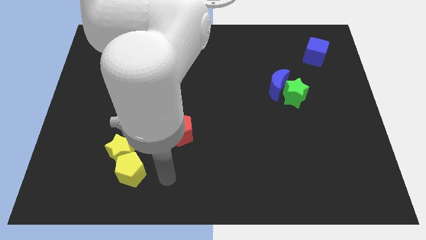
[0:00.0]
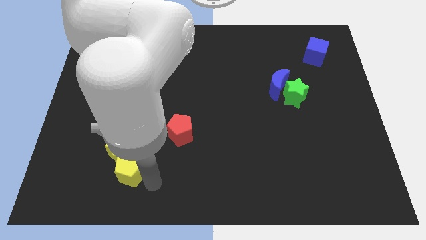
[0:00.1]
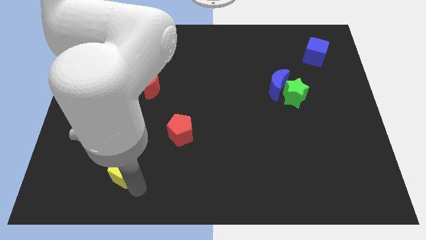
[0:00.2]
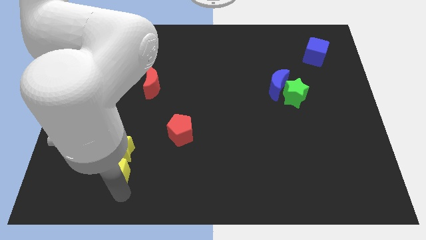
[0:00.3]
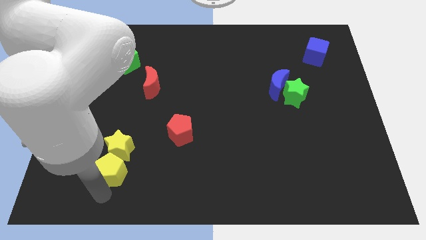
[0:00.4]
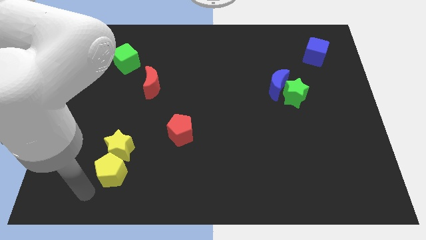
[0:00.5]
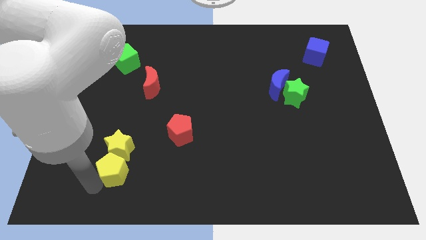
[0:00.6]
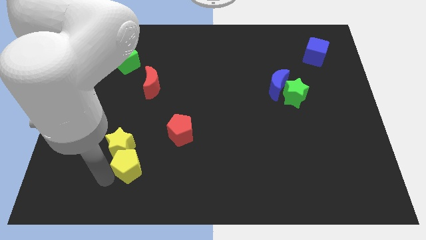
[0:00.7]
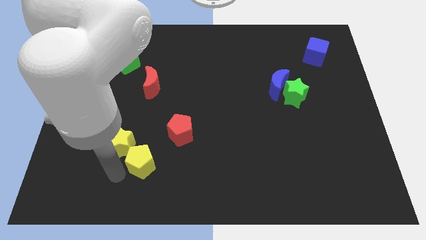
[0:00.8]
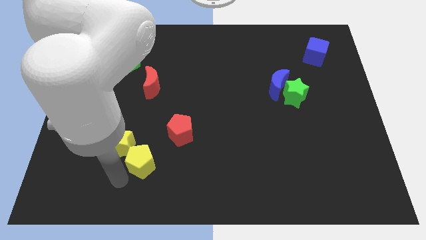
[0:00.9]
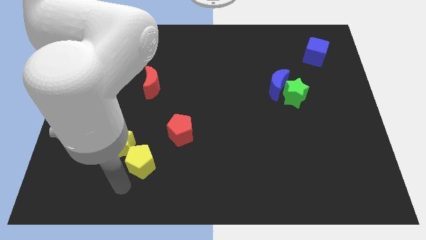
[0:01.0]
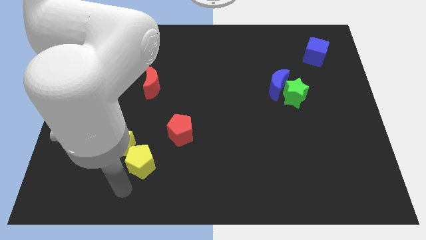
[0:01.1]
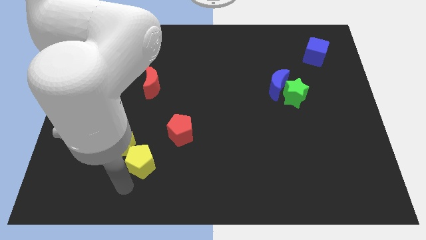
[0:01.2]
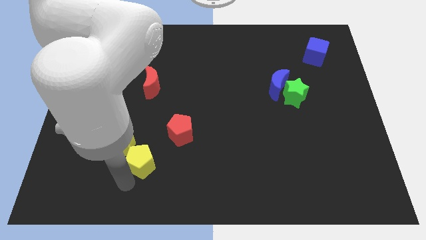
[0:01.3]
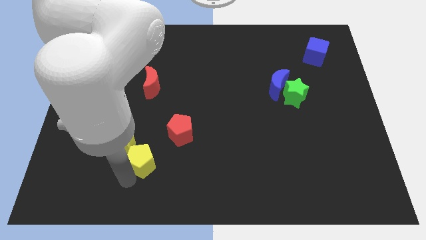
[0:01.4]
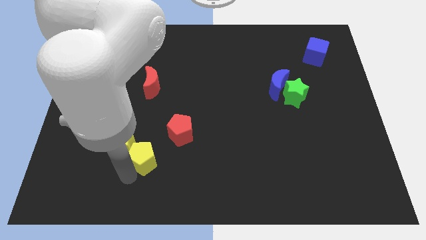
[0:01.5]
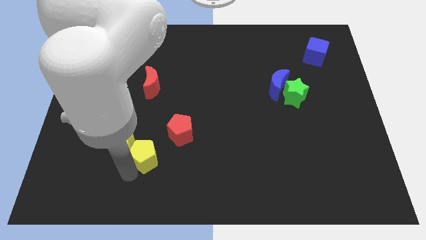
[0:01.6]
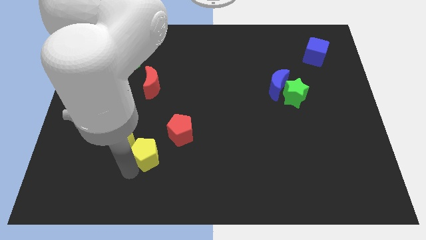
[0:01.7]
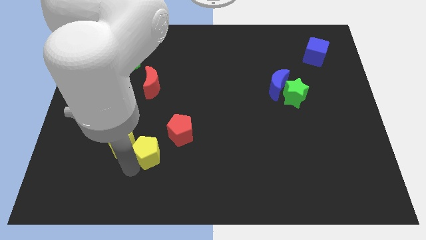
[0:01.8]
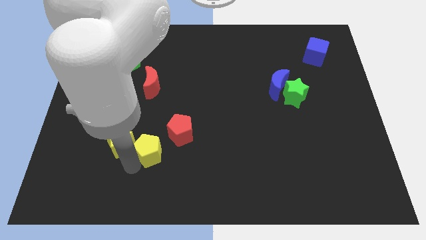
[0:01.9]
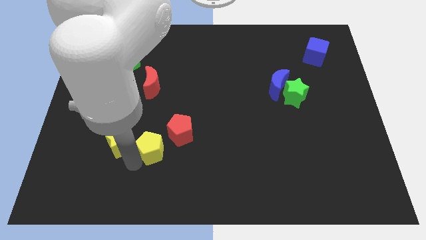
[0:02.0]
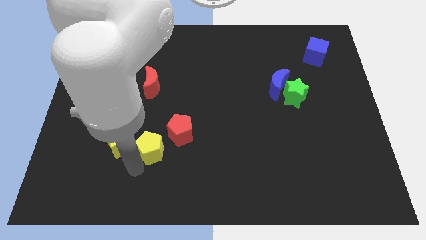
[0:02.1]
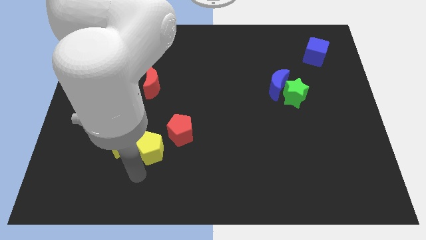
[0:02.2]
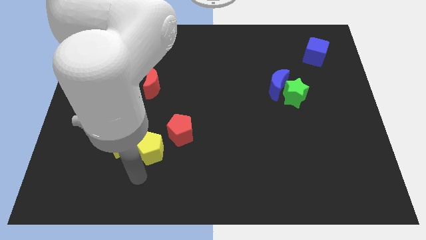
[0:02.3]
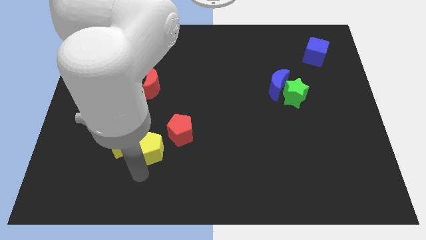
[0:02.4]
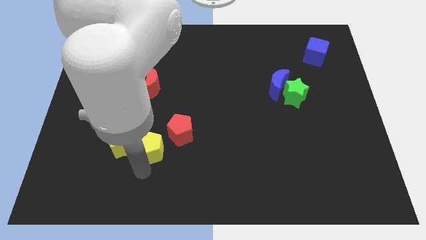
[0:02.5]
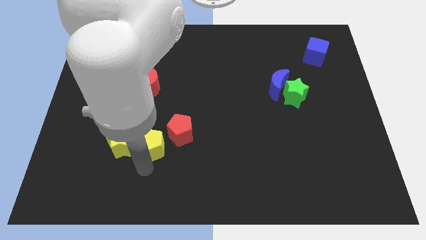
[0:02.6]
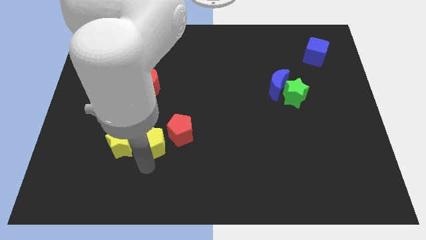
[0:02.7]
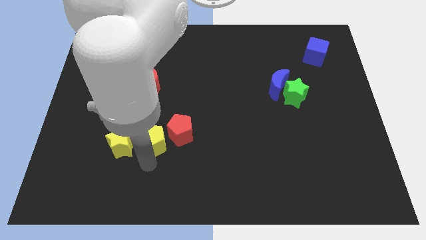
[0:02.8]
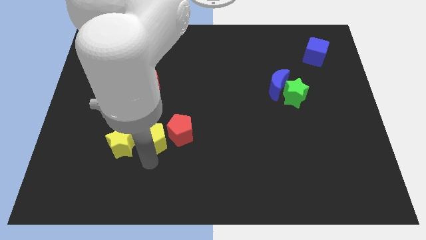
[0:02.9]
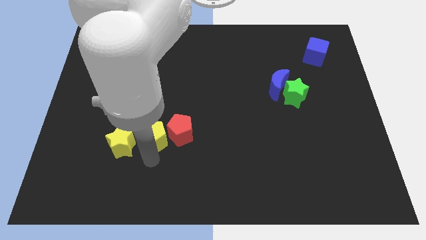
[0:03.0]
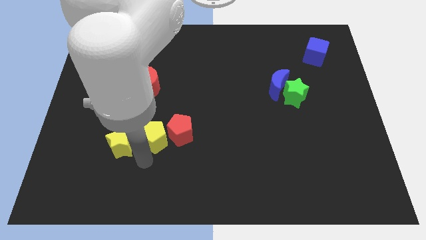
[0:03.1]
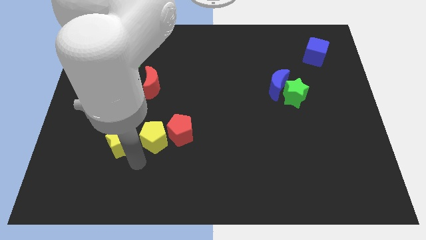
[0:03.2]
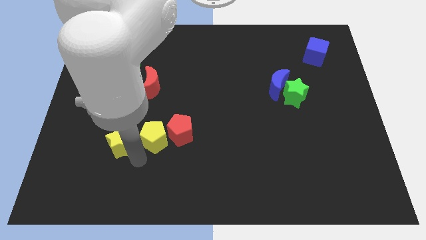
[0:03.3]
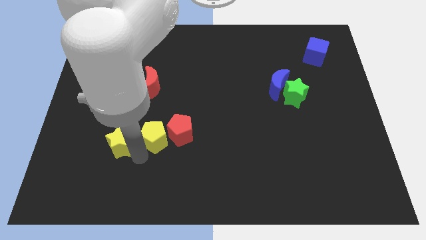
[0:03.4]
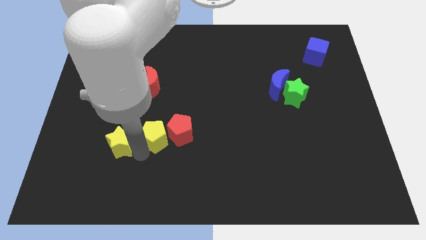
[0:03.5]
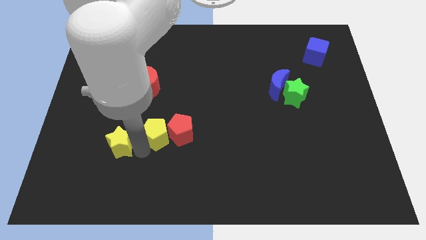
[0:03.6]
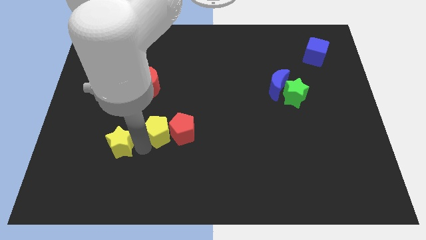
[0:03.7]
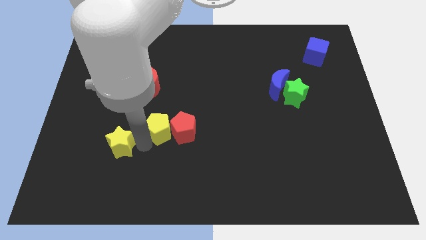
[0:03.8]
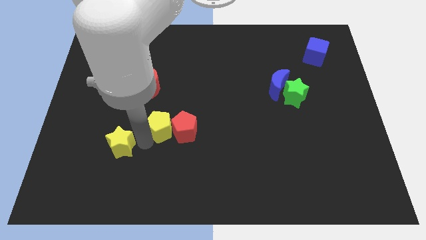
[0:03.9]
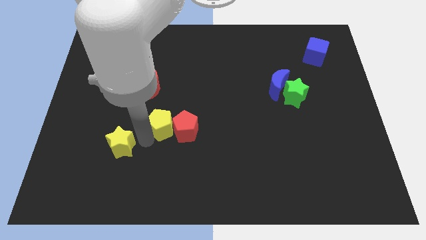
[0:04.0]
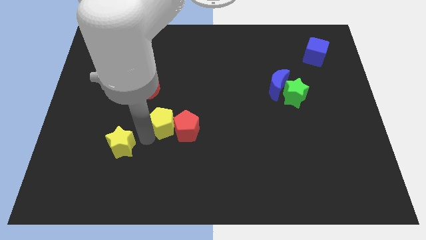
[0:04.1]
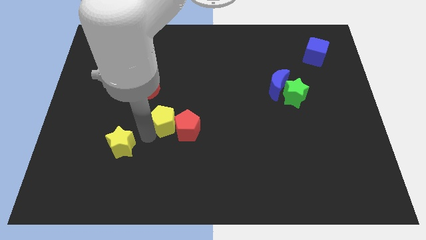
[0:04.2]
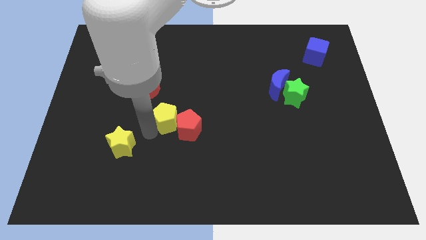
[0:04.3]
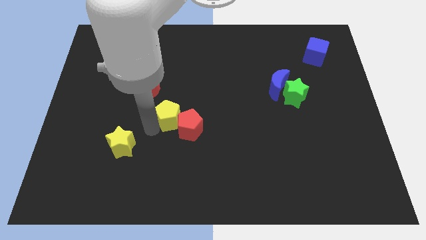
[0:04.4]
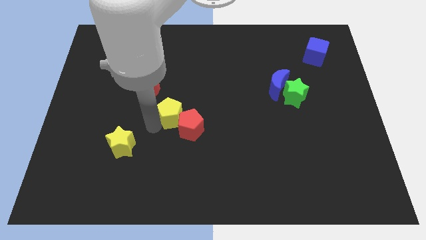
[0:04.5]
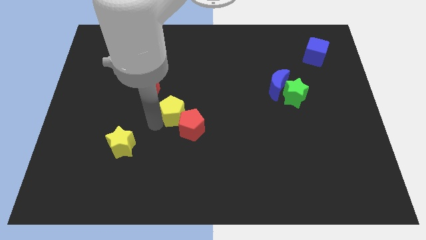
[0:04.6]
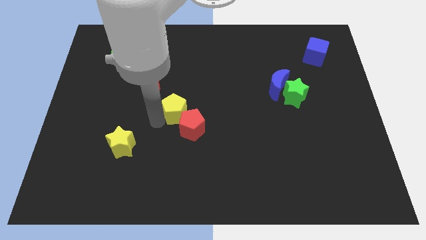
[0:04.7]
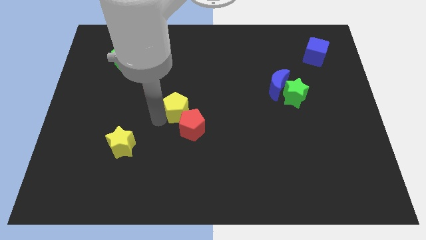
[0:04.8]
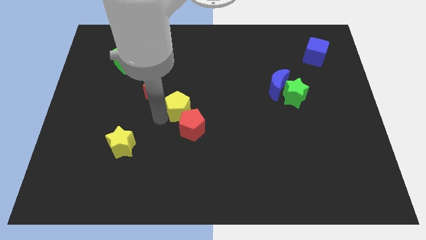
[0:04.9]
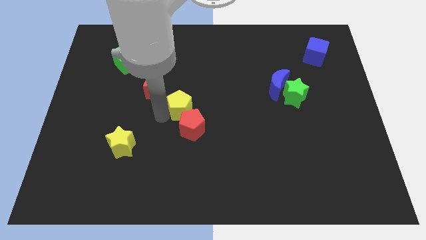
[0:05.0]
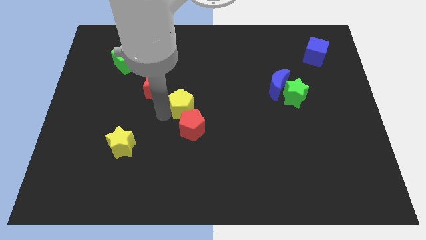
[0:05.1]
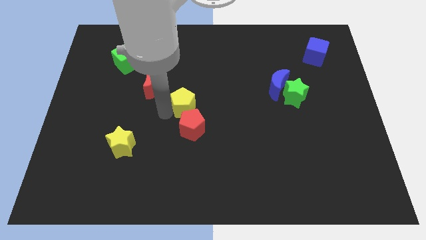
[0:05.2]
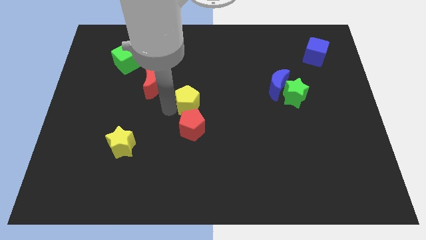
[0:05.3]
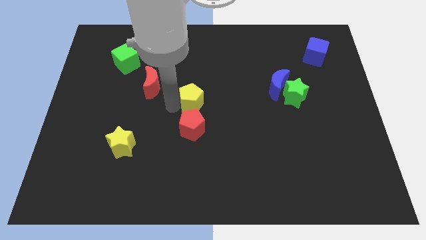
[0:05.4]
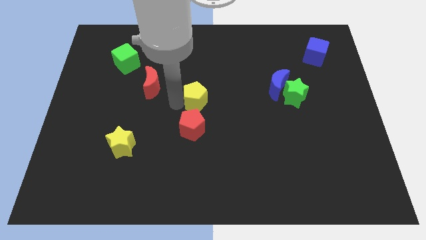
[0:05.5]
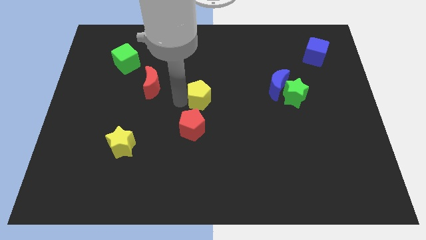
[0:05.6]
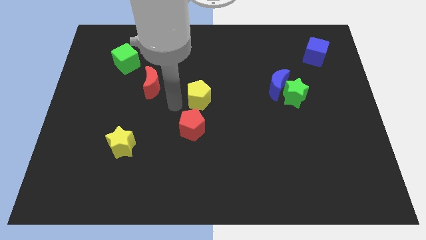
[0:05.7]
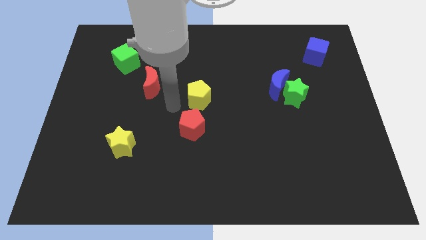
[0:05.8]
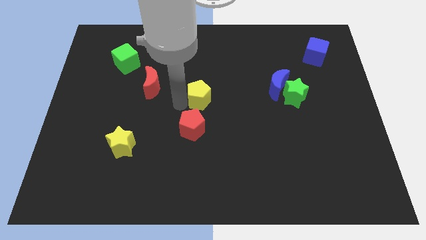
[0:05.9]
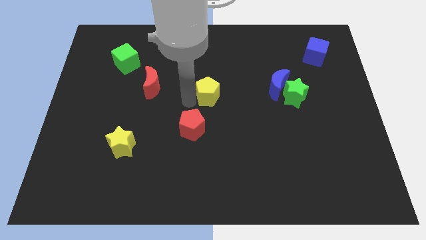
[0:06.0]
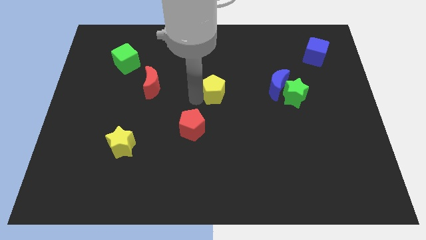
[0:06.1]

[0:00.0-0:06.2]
slide the yellow pentagon to the left of the blue moon
